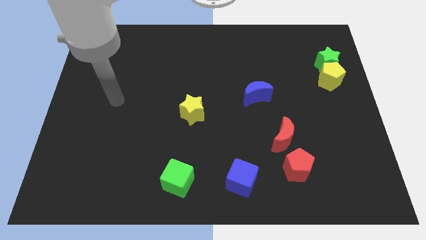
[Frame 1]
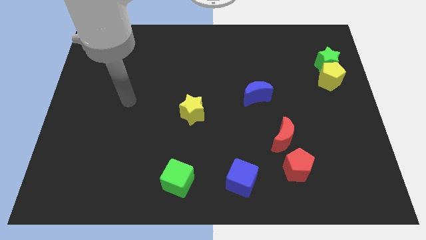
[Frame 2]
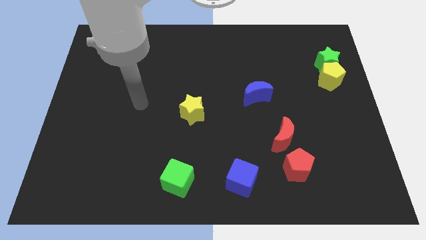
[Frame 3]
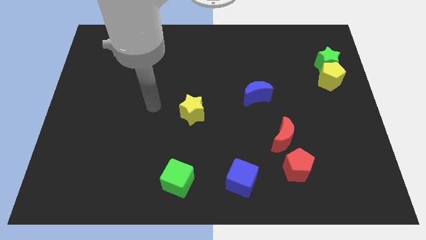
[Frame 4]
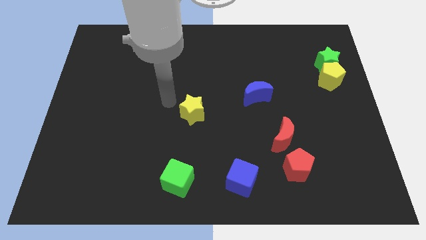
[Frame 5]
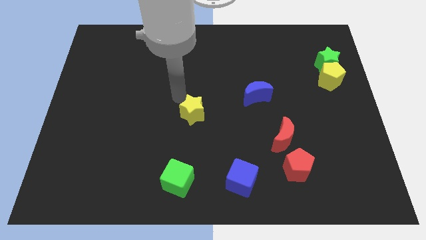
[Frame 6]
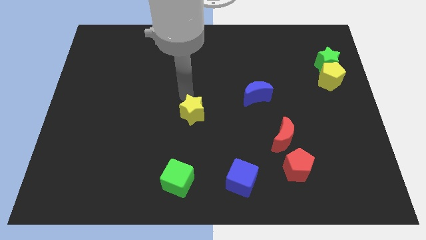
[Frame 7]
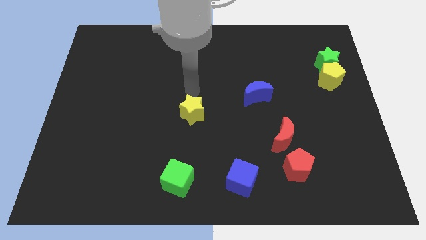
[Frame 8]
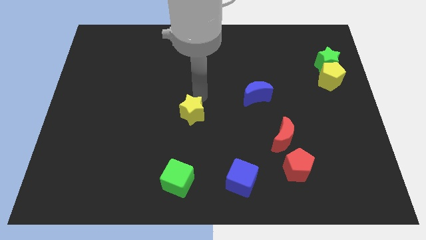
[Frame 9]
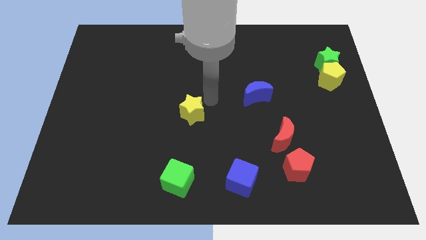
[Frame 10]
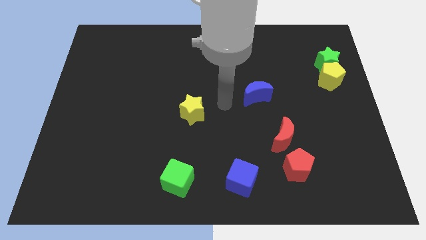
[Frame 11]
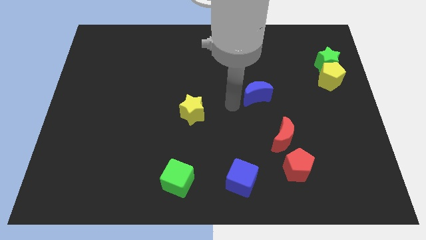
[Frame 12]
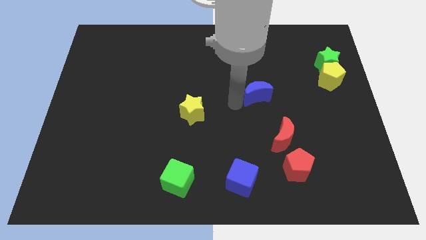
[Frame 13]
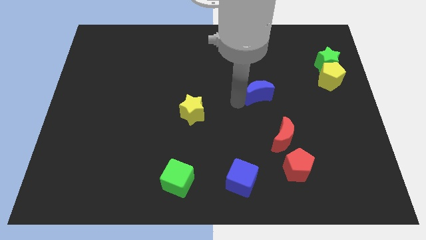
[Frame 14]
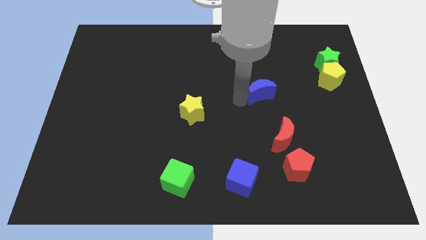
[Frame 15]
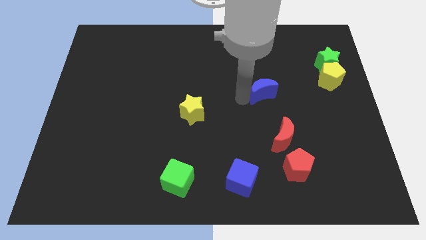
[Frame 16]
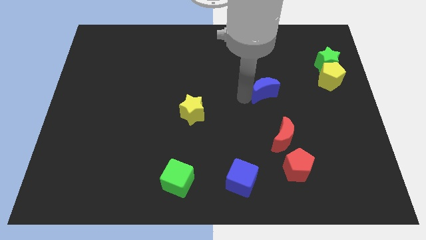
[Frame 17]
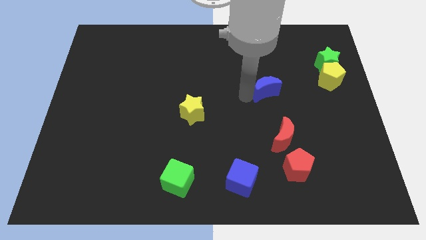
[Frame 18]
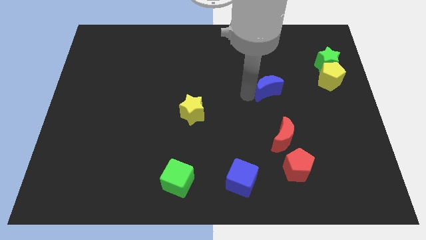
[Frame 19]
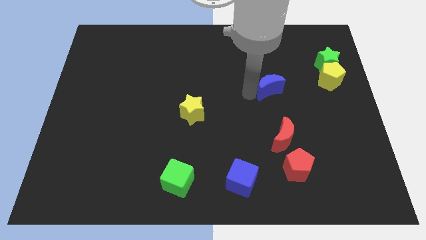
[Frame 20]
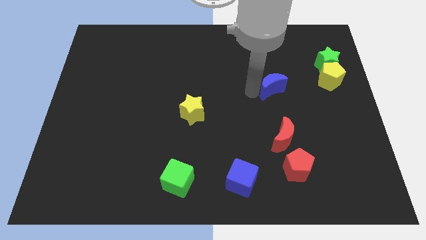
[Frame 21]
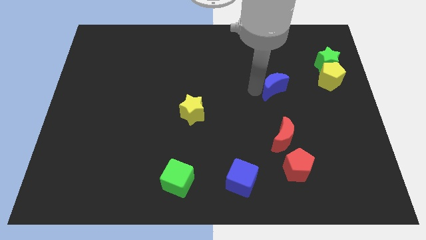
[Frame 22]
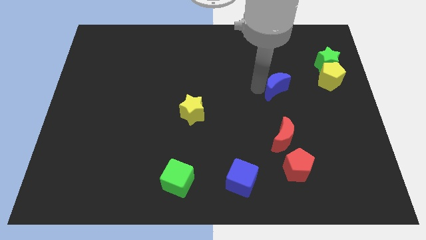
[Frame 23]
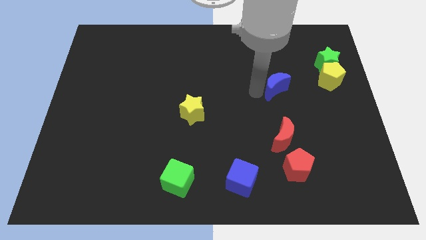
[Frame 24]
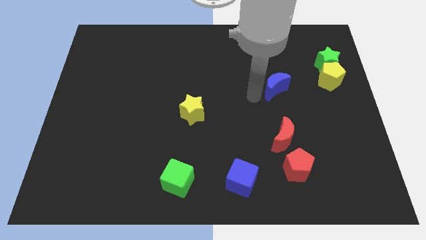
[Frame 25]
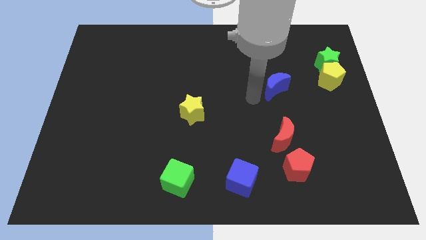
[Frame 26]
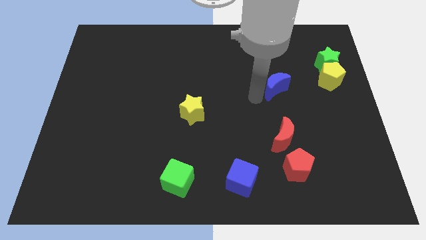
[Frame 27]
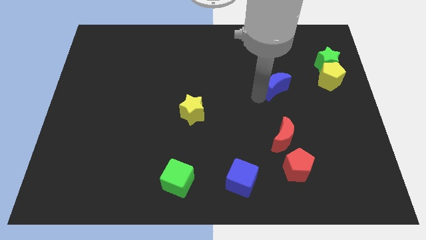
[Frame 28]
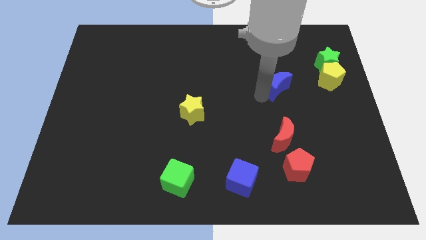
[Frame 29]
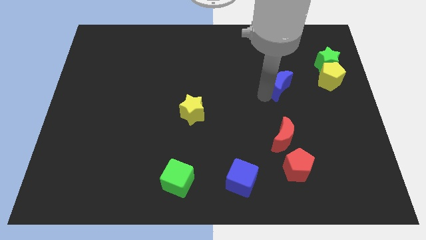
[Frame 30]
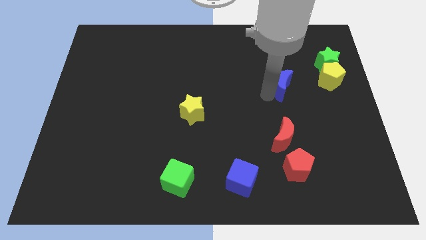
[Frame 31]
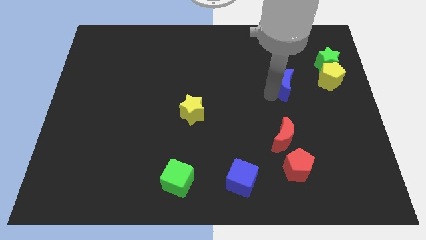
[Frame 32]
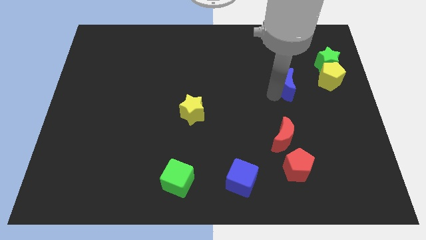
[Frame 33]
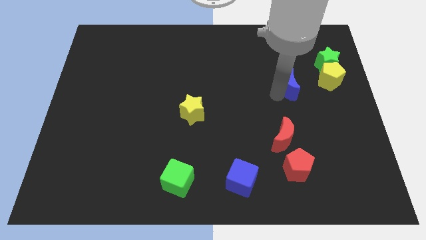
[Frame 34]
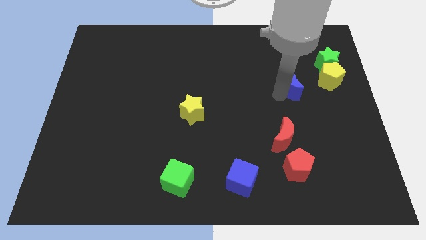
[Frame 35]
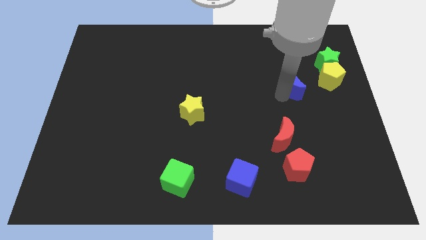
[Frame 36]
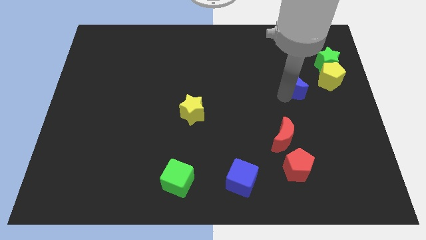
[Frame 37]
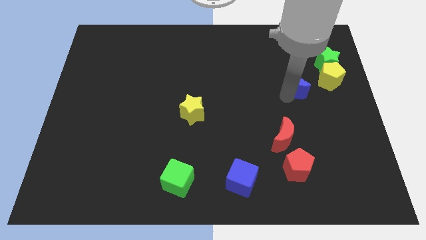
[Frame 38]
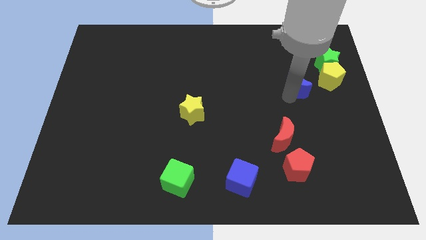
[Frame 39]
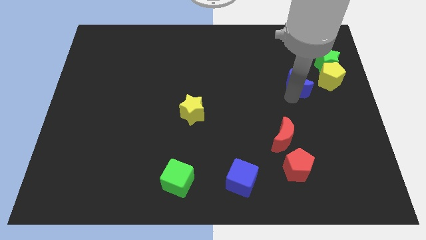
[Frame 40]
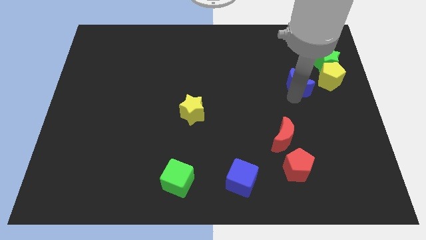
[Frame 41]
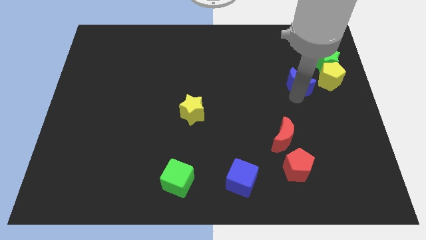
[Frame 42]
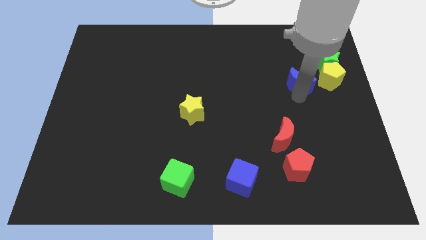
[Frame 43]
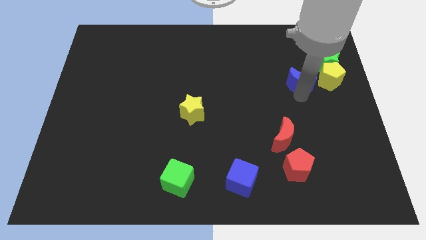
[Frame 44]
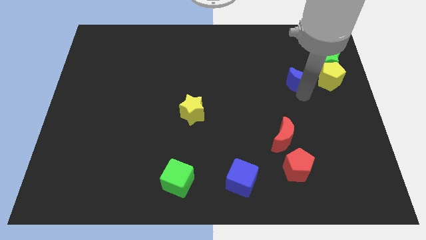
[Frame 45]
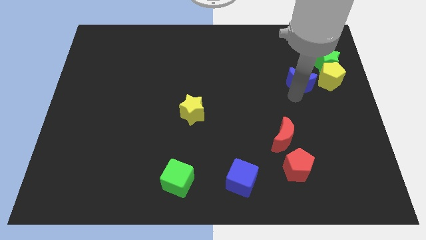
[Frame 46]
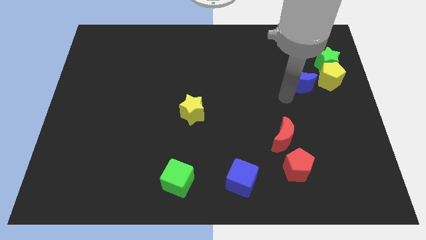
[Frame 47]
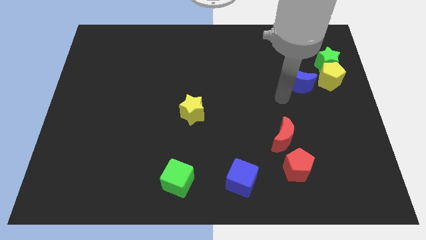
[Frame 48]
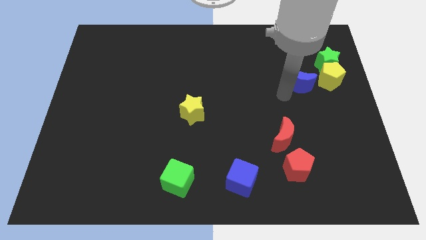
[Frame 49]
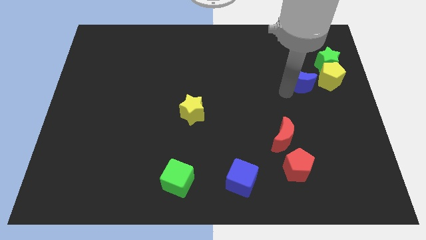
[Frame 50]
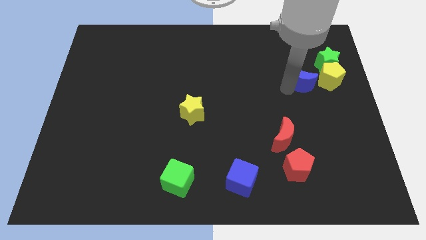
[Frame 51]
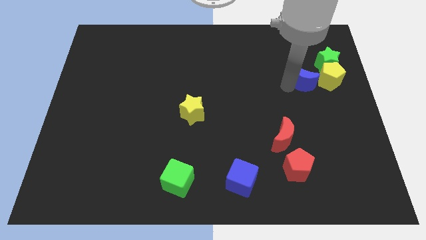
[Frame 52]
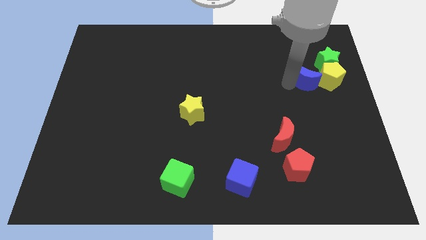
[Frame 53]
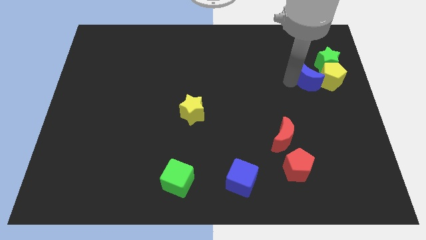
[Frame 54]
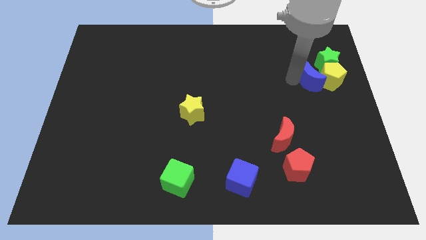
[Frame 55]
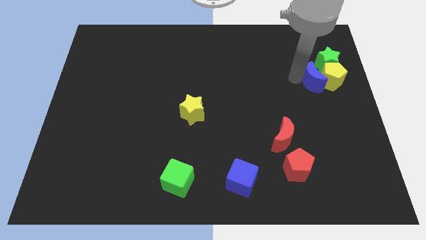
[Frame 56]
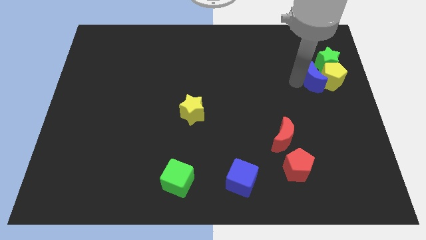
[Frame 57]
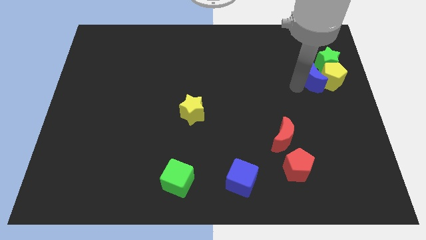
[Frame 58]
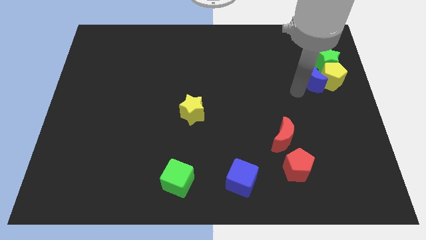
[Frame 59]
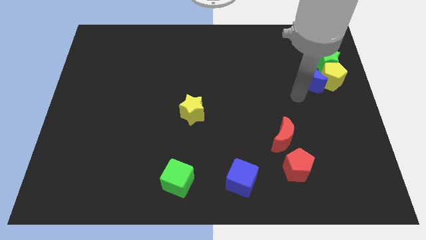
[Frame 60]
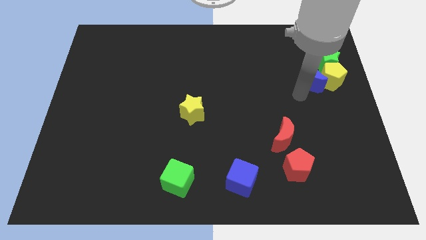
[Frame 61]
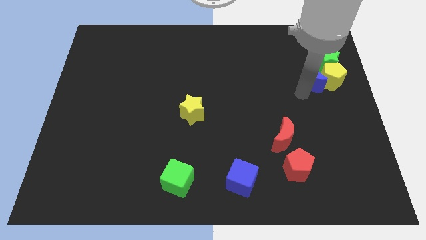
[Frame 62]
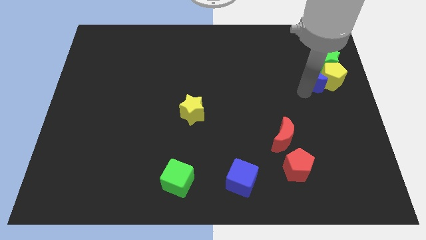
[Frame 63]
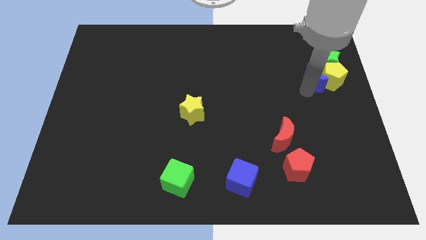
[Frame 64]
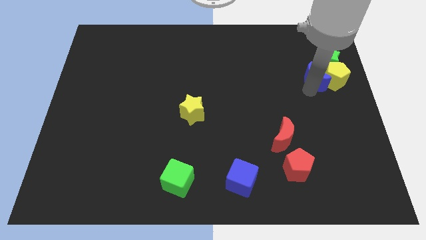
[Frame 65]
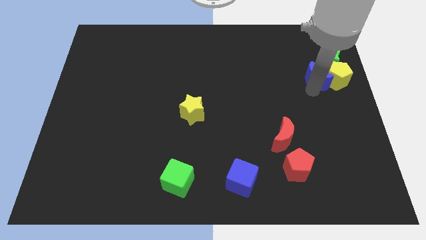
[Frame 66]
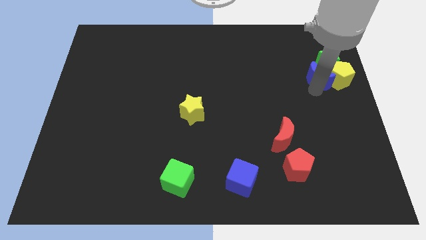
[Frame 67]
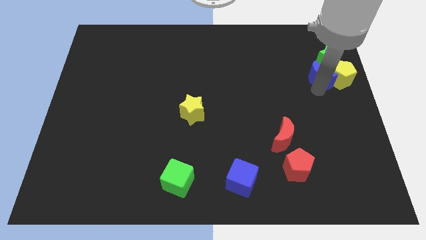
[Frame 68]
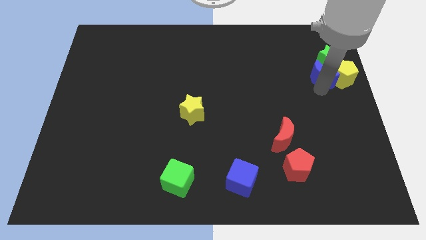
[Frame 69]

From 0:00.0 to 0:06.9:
slide the blue moon to the green star
